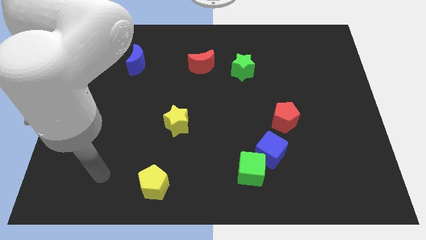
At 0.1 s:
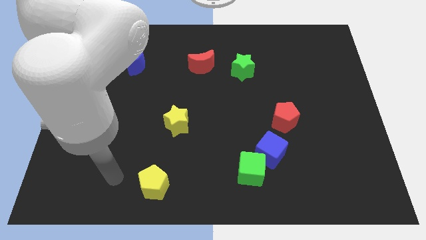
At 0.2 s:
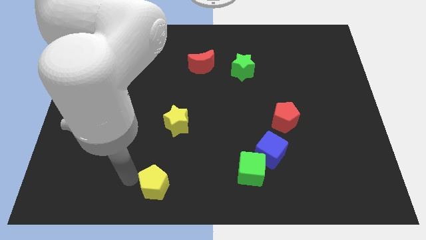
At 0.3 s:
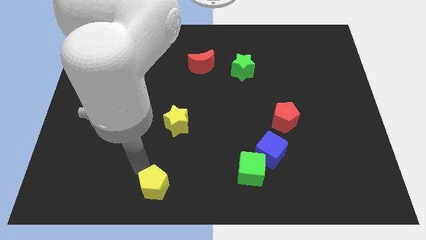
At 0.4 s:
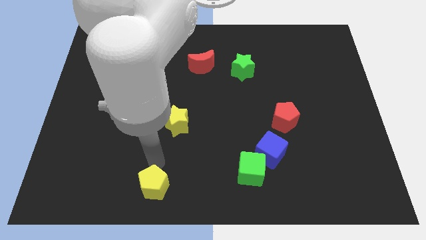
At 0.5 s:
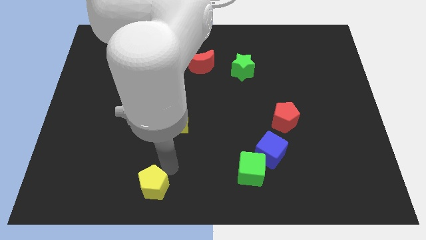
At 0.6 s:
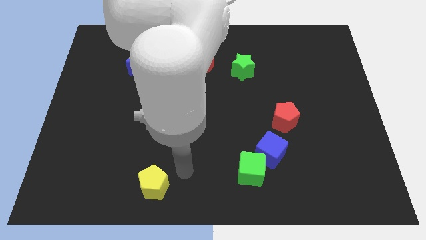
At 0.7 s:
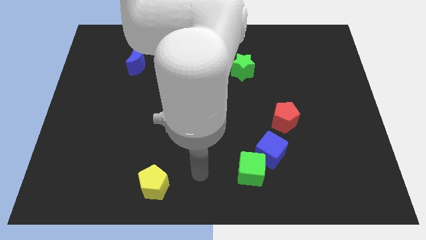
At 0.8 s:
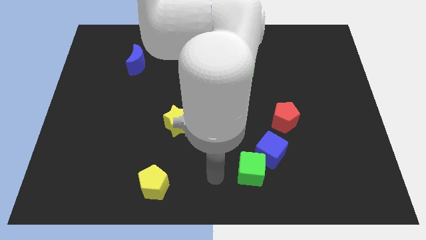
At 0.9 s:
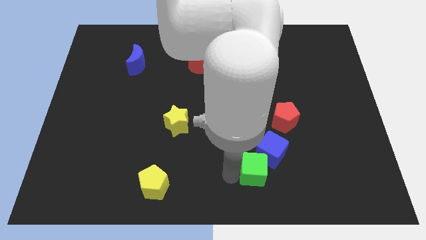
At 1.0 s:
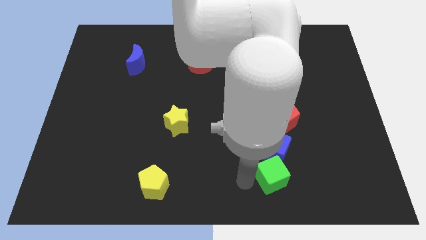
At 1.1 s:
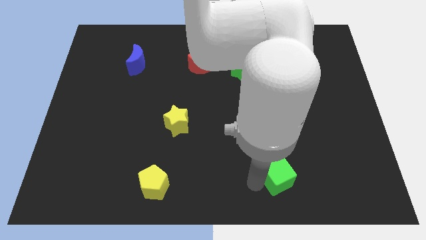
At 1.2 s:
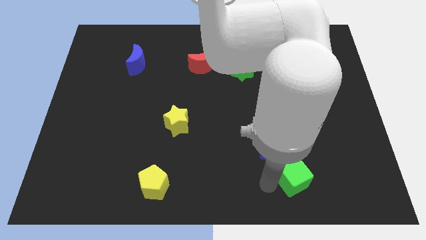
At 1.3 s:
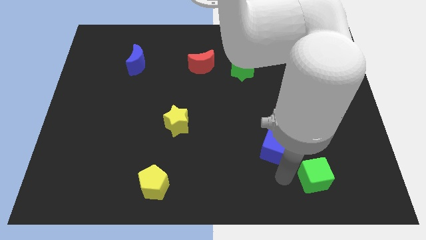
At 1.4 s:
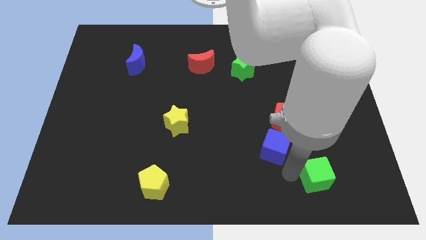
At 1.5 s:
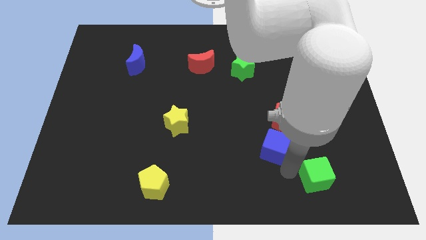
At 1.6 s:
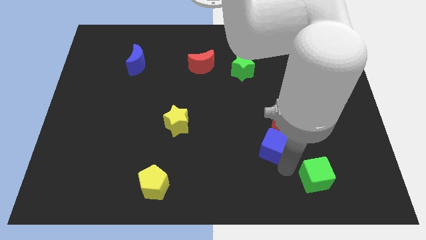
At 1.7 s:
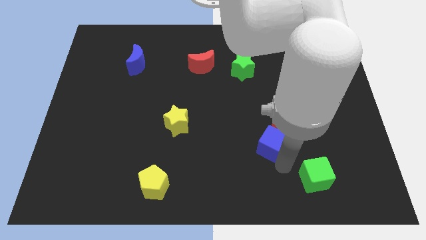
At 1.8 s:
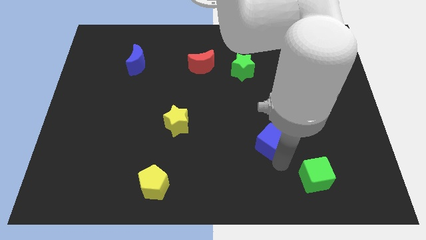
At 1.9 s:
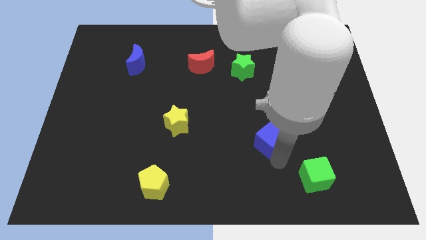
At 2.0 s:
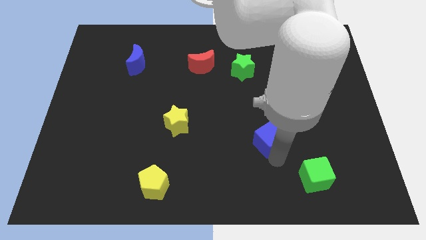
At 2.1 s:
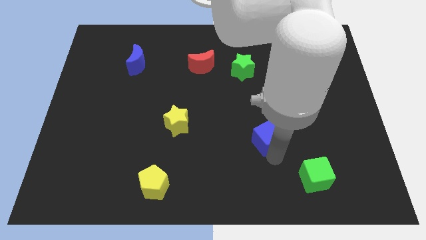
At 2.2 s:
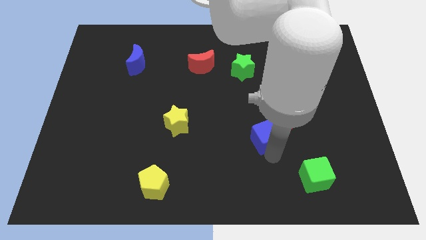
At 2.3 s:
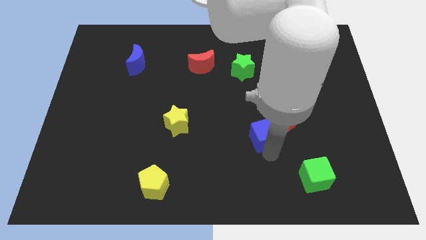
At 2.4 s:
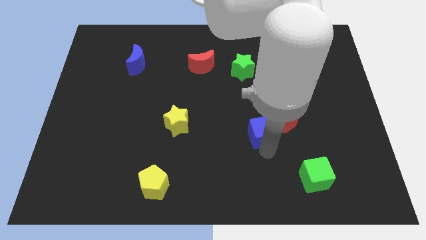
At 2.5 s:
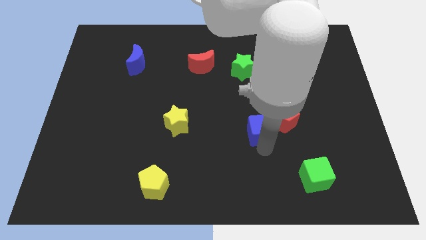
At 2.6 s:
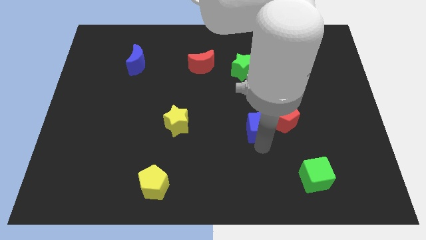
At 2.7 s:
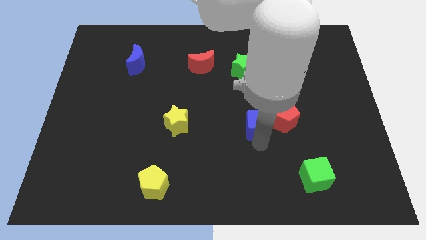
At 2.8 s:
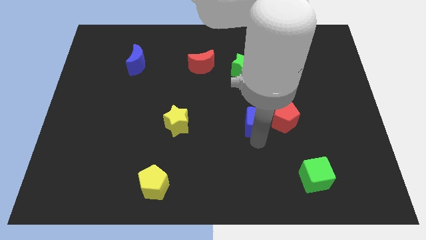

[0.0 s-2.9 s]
push the blue cube a little up

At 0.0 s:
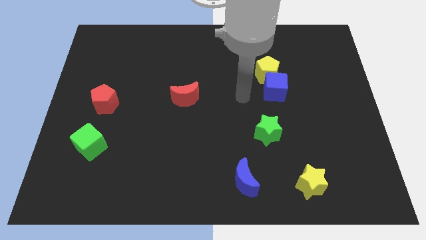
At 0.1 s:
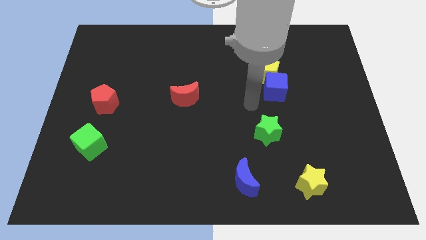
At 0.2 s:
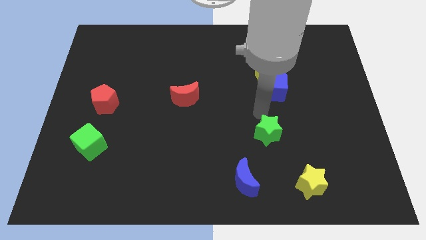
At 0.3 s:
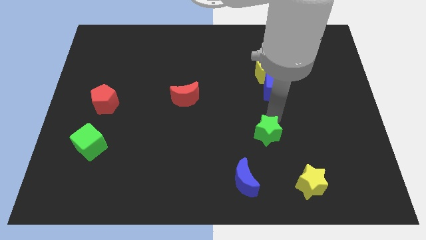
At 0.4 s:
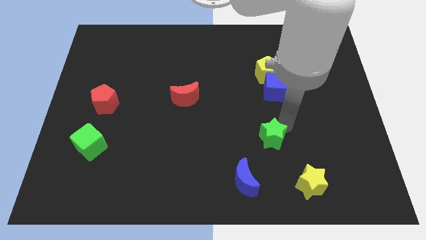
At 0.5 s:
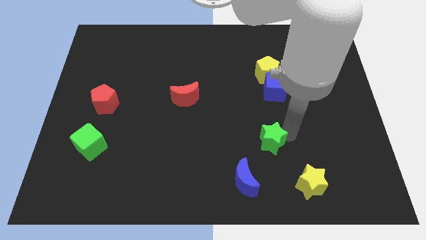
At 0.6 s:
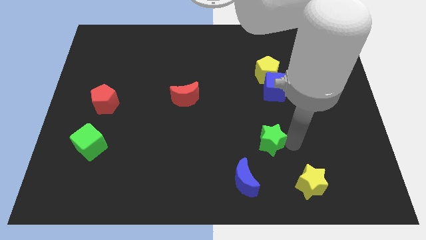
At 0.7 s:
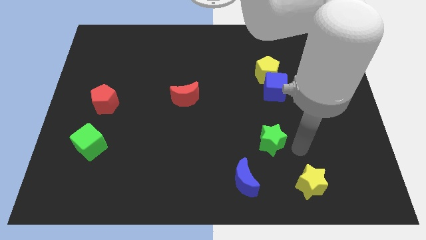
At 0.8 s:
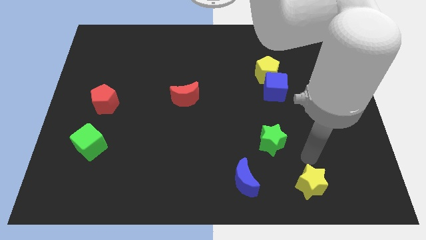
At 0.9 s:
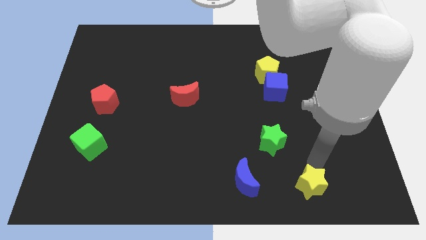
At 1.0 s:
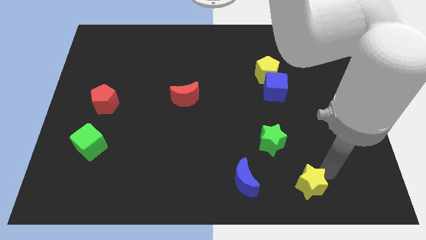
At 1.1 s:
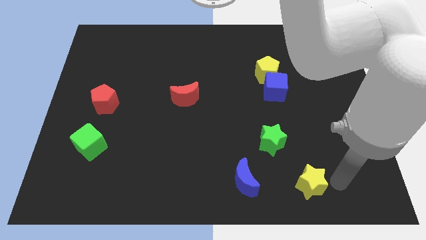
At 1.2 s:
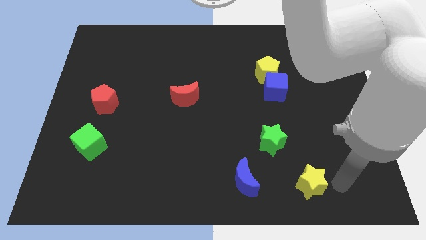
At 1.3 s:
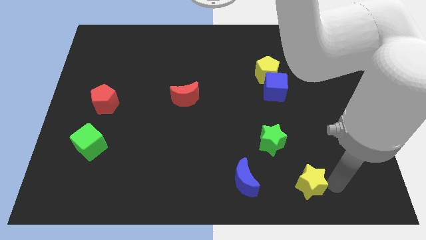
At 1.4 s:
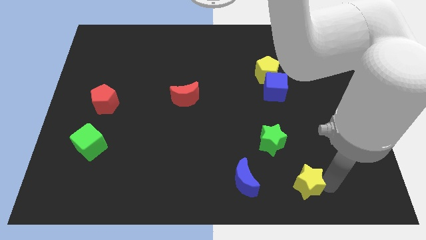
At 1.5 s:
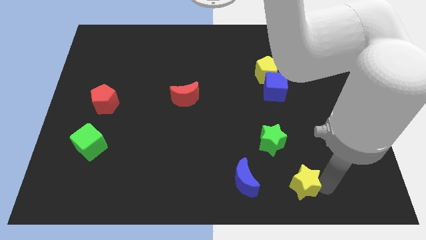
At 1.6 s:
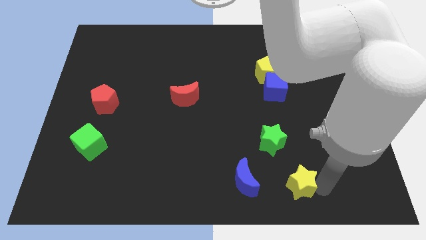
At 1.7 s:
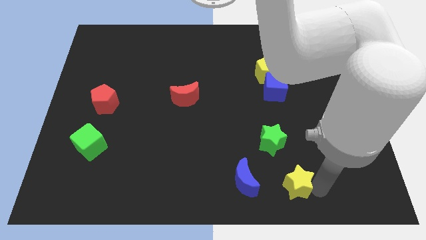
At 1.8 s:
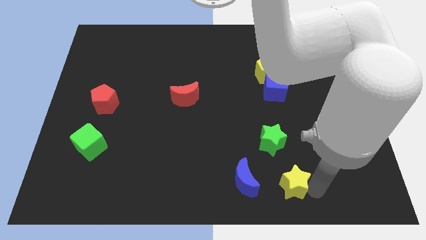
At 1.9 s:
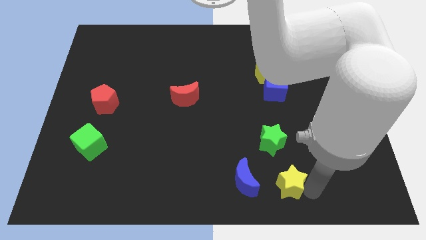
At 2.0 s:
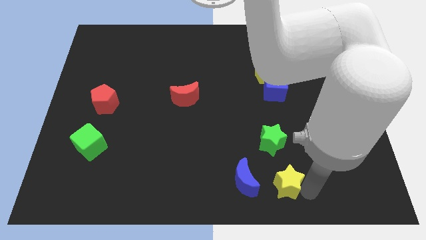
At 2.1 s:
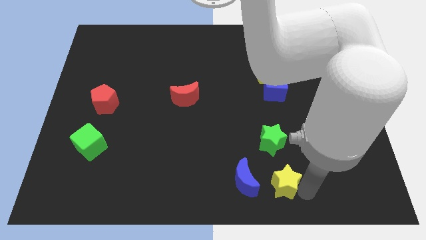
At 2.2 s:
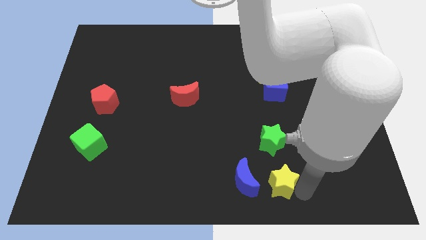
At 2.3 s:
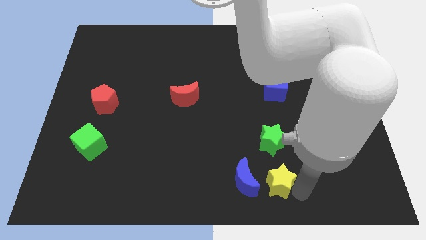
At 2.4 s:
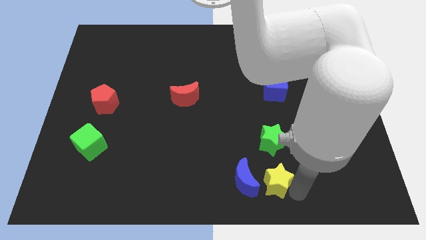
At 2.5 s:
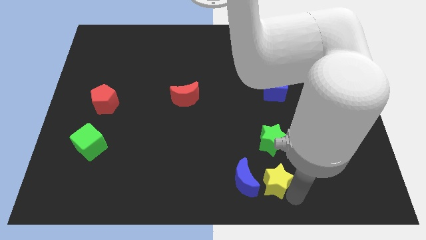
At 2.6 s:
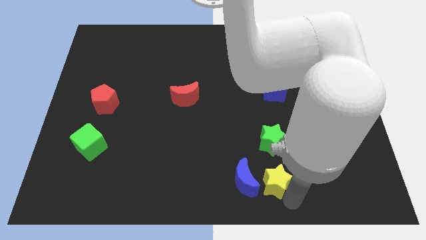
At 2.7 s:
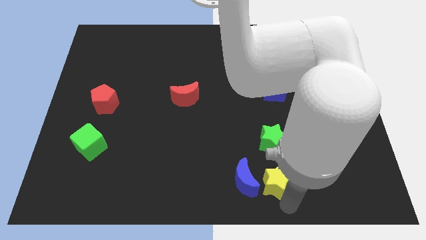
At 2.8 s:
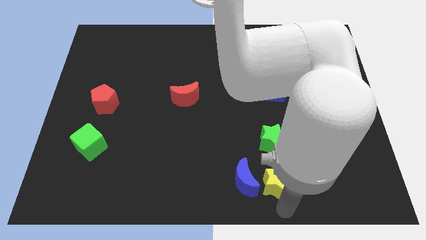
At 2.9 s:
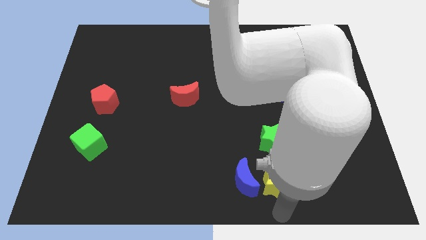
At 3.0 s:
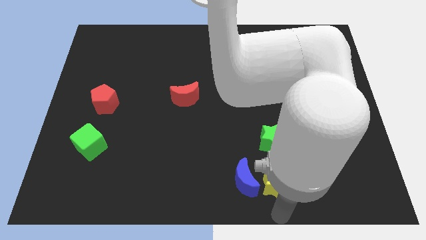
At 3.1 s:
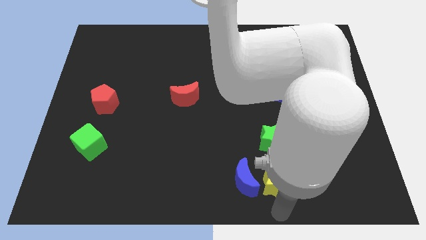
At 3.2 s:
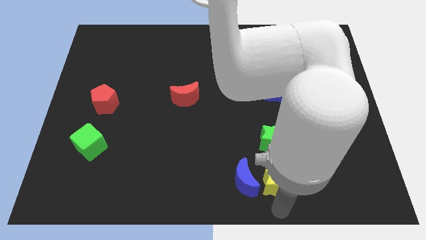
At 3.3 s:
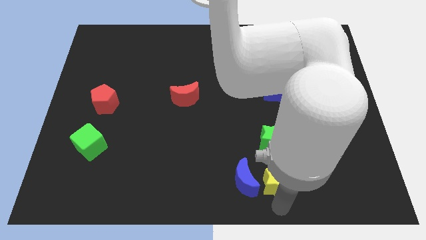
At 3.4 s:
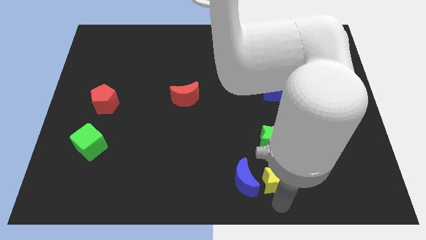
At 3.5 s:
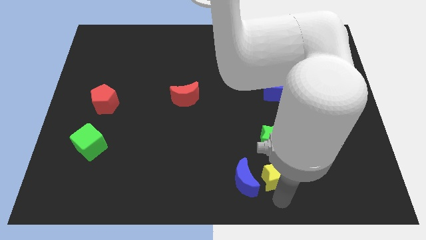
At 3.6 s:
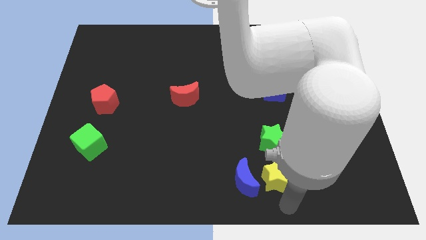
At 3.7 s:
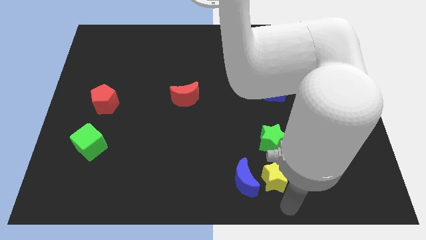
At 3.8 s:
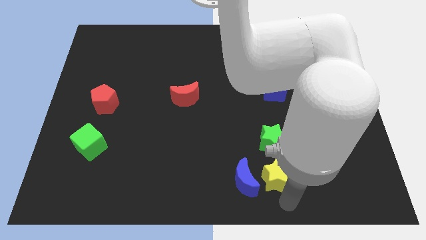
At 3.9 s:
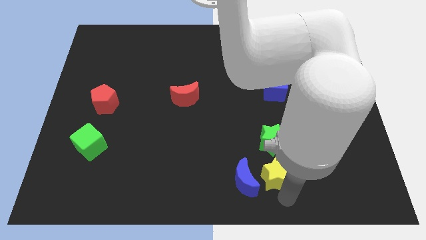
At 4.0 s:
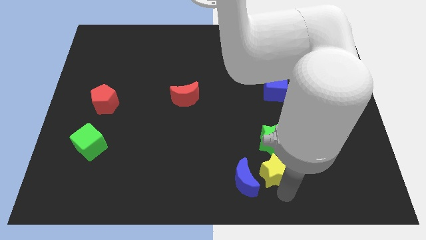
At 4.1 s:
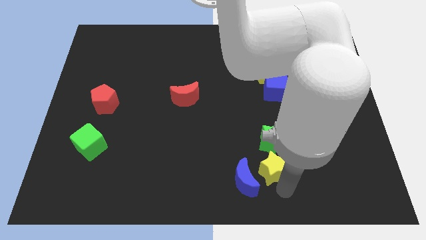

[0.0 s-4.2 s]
slightly push the yellow star upwards and left

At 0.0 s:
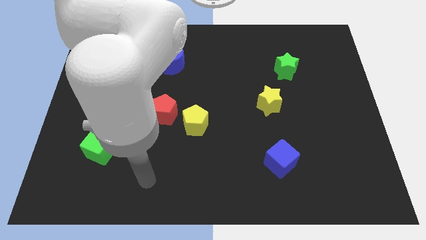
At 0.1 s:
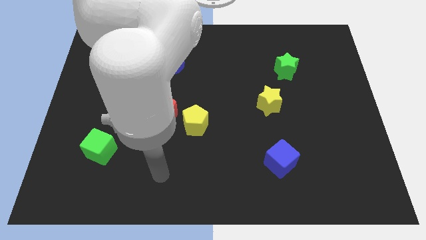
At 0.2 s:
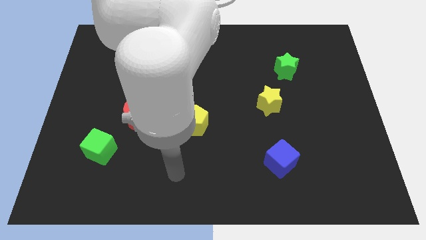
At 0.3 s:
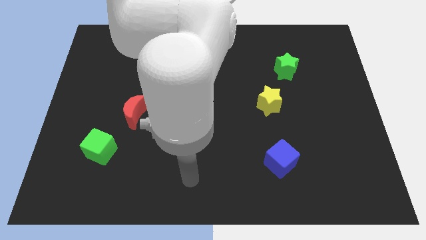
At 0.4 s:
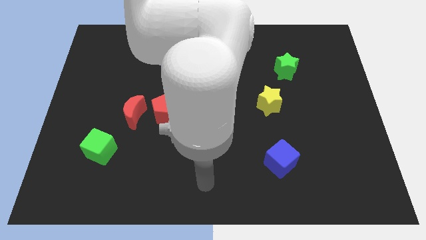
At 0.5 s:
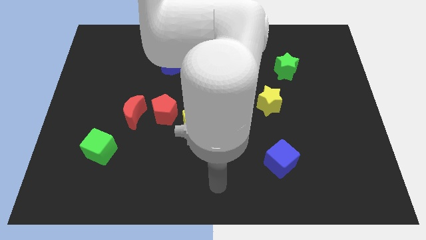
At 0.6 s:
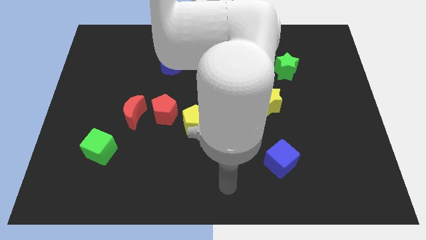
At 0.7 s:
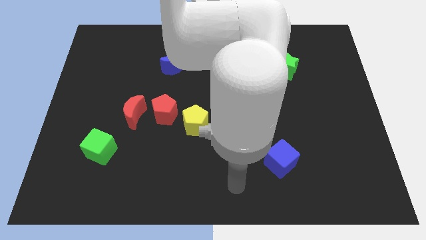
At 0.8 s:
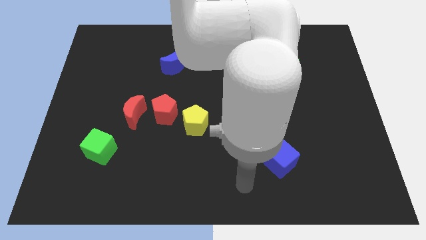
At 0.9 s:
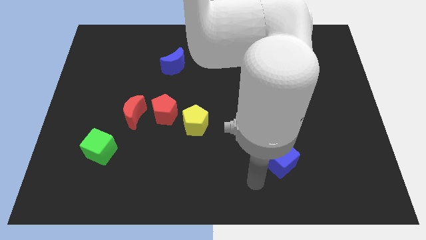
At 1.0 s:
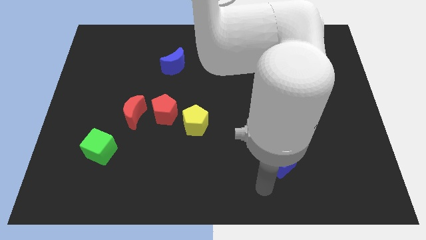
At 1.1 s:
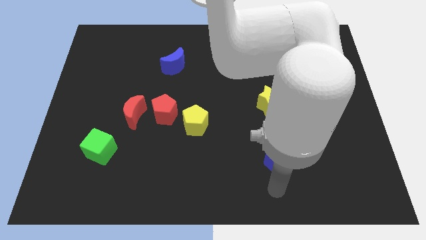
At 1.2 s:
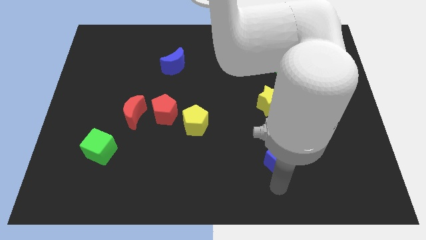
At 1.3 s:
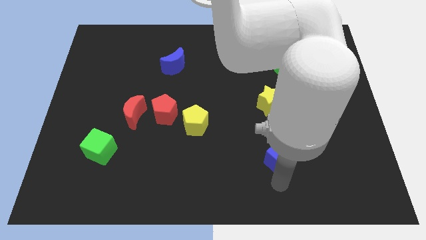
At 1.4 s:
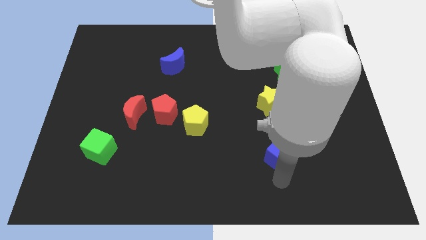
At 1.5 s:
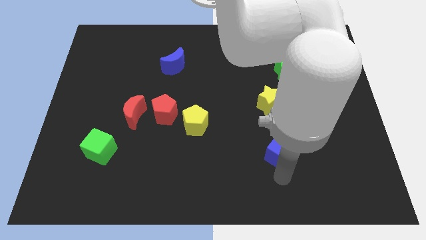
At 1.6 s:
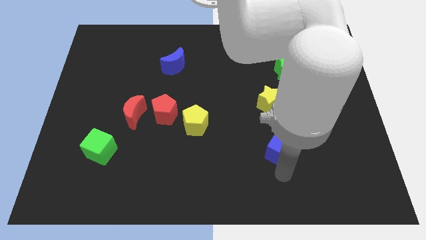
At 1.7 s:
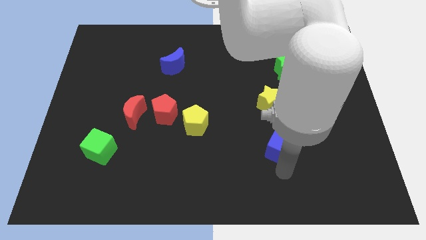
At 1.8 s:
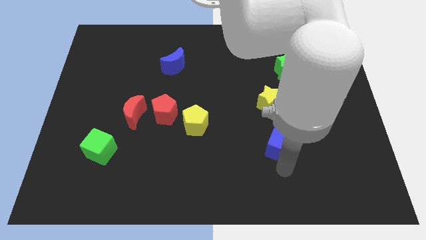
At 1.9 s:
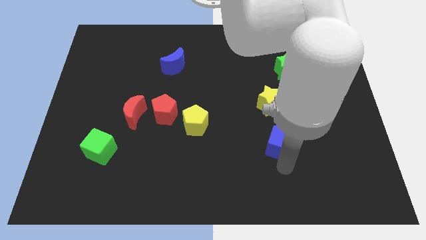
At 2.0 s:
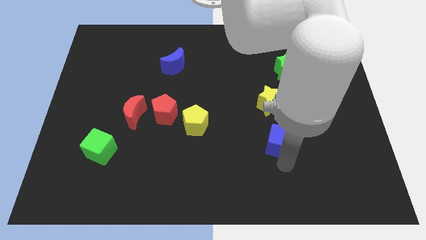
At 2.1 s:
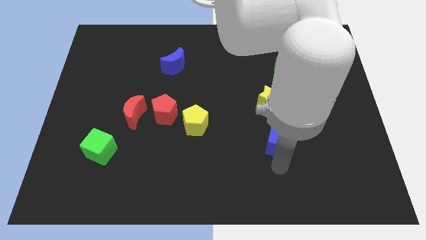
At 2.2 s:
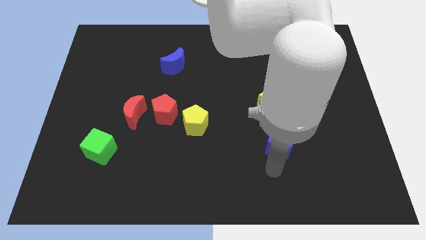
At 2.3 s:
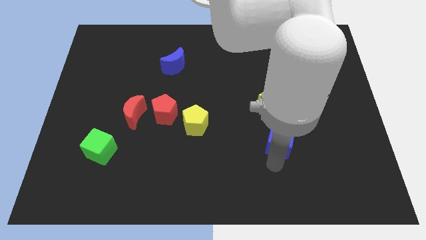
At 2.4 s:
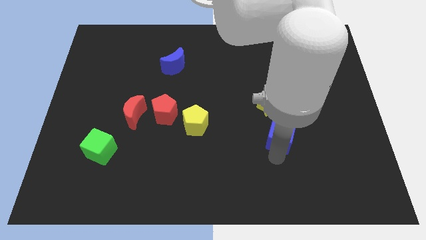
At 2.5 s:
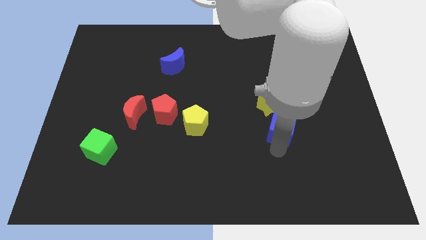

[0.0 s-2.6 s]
move the blue cube somewhat upwards
